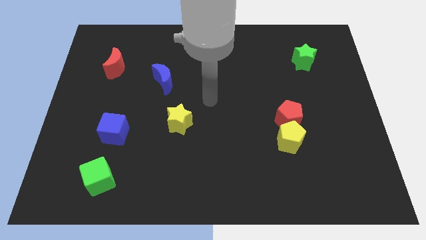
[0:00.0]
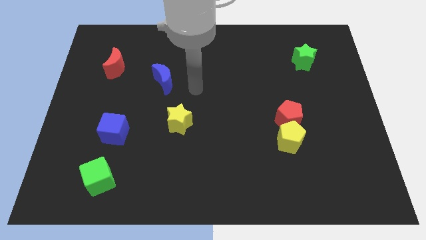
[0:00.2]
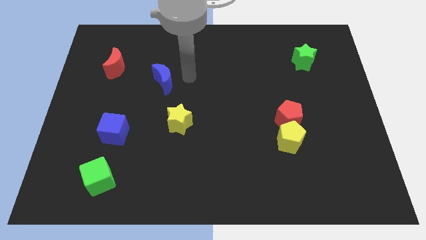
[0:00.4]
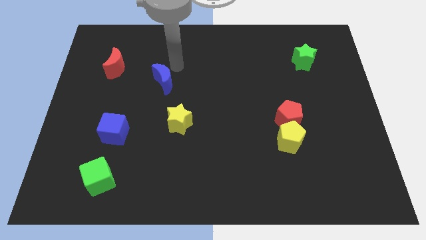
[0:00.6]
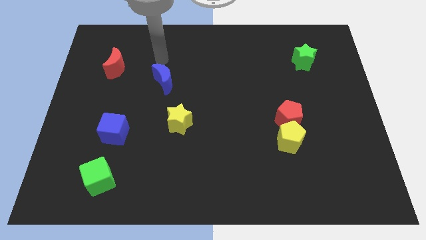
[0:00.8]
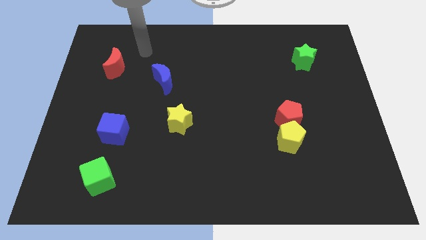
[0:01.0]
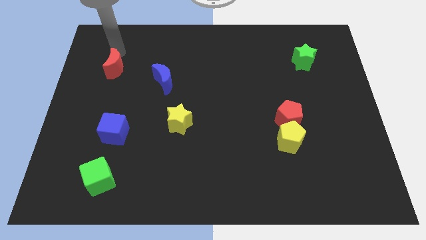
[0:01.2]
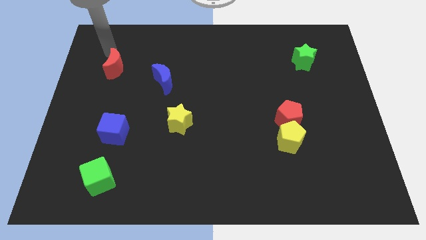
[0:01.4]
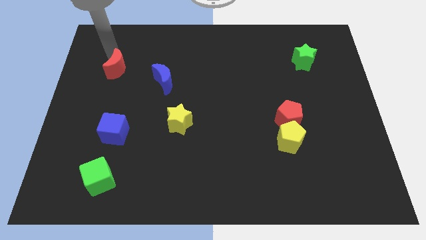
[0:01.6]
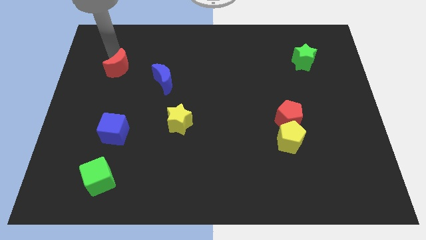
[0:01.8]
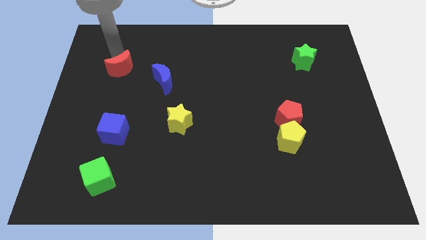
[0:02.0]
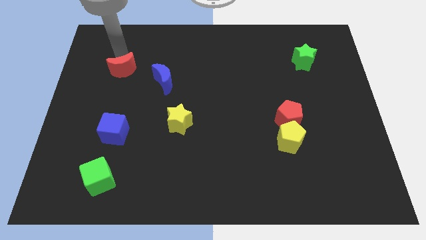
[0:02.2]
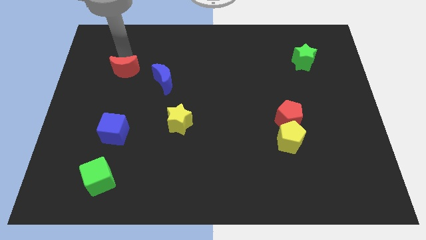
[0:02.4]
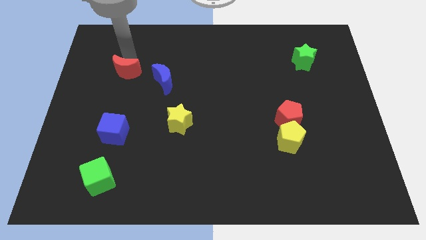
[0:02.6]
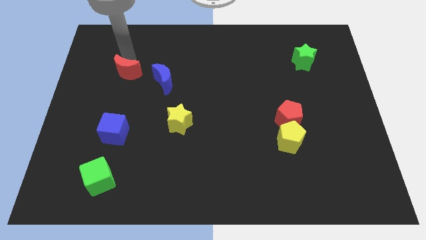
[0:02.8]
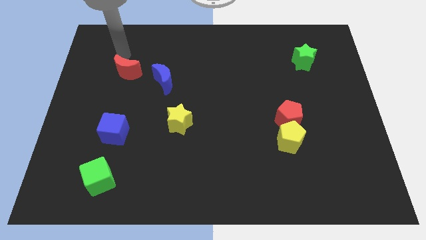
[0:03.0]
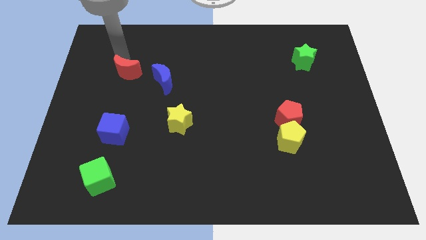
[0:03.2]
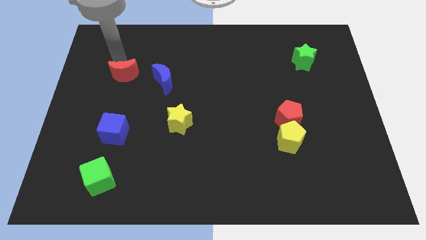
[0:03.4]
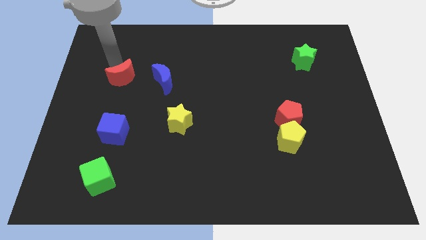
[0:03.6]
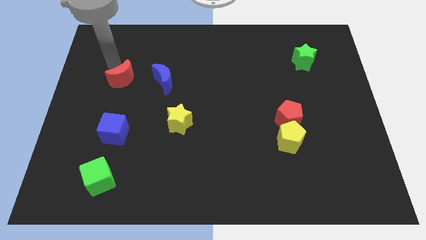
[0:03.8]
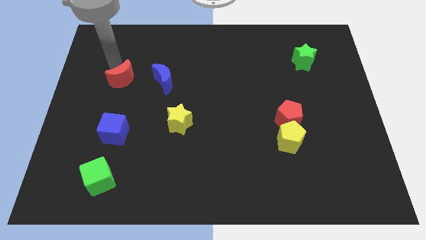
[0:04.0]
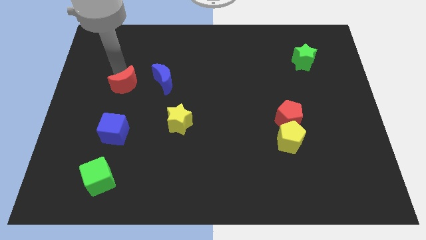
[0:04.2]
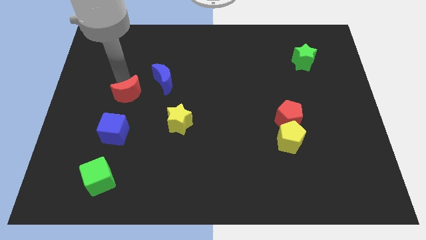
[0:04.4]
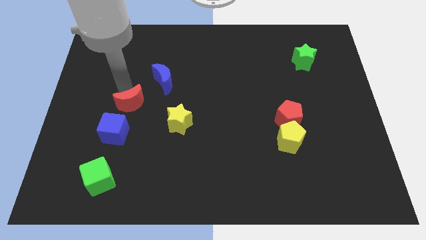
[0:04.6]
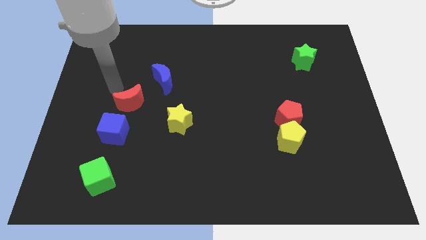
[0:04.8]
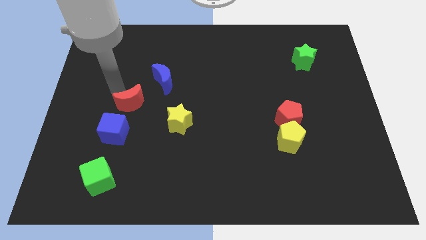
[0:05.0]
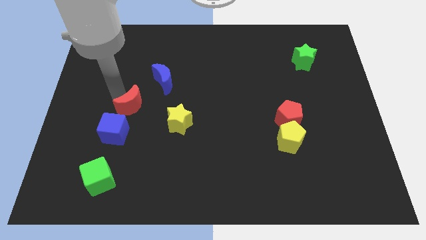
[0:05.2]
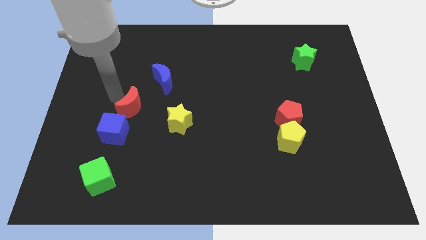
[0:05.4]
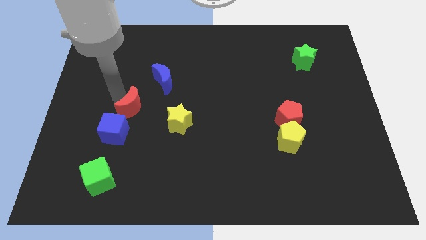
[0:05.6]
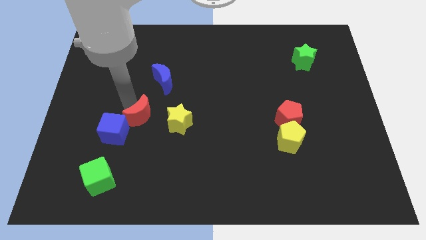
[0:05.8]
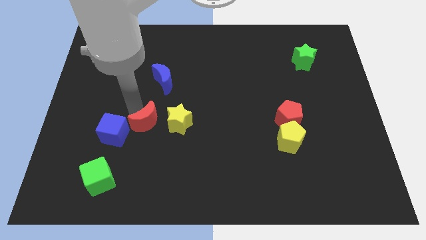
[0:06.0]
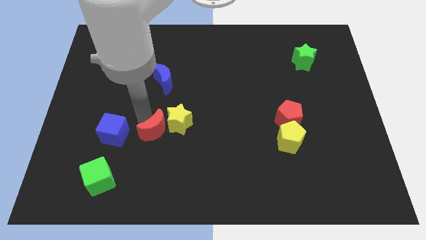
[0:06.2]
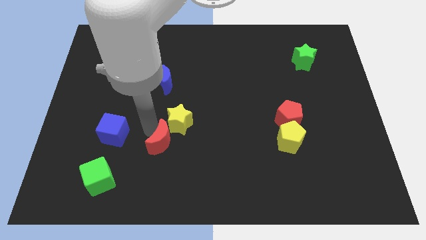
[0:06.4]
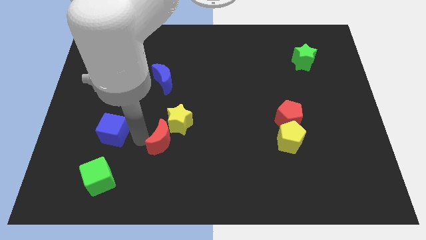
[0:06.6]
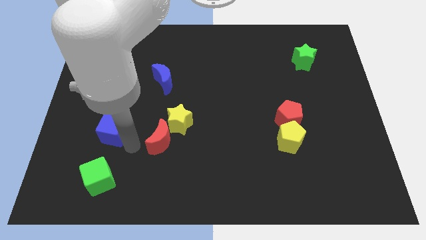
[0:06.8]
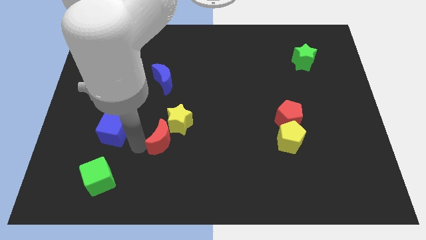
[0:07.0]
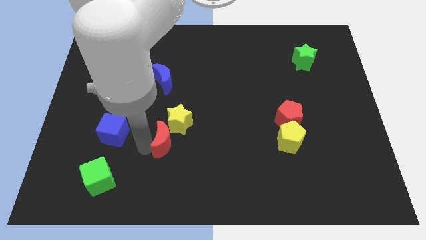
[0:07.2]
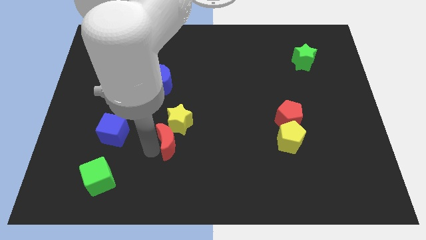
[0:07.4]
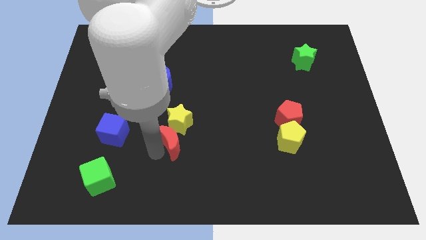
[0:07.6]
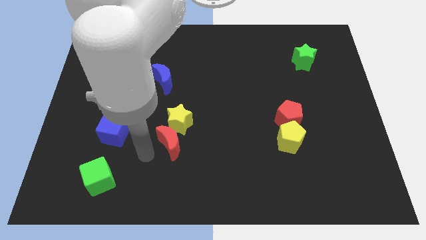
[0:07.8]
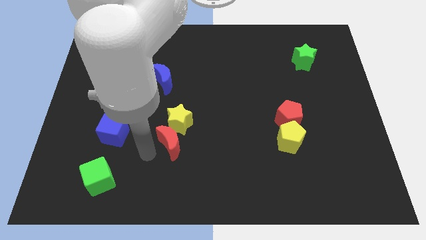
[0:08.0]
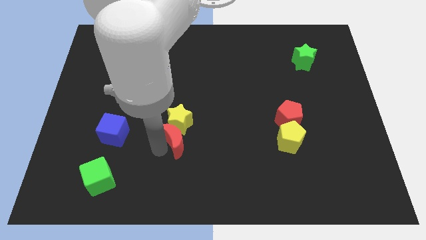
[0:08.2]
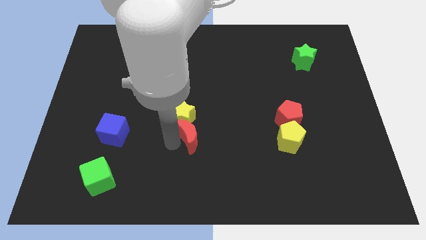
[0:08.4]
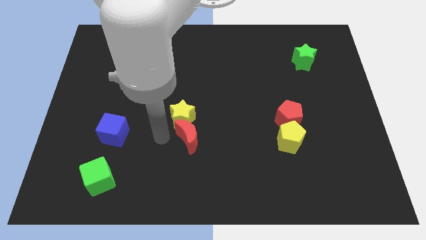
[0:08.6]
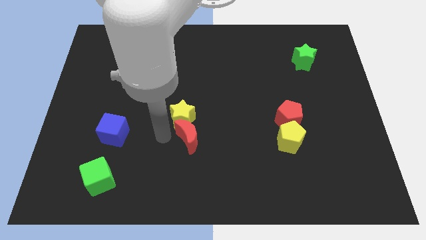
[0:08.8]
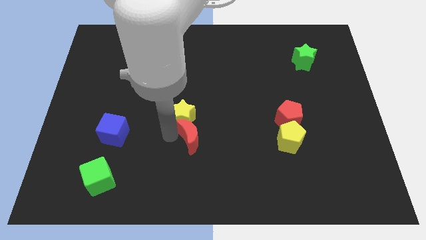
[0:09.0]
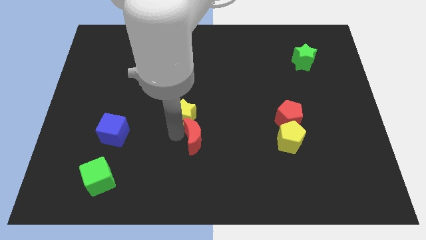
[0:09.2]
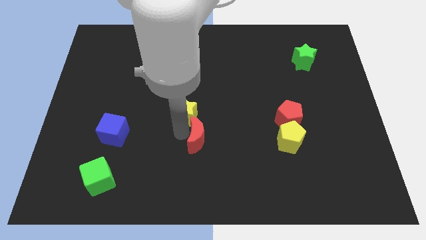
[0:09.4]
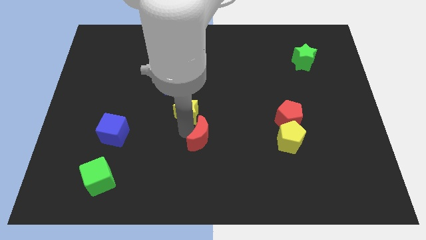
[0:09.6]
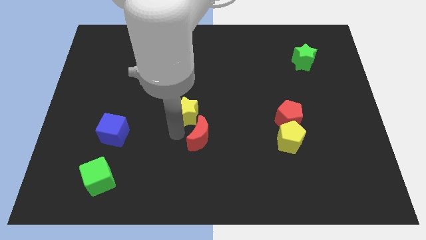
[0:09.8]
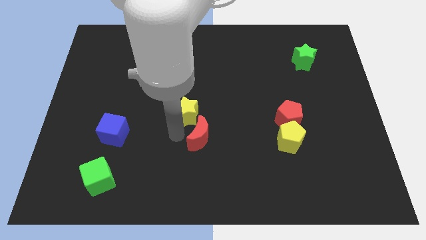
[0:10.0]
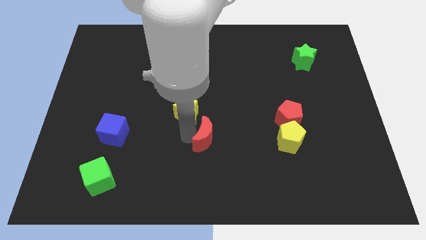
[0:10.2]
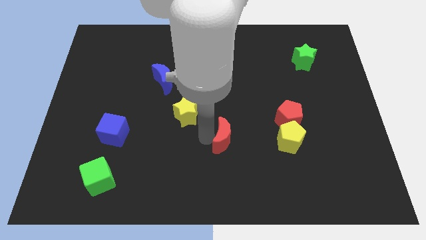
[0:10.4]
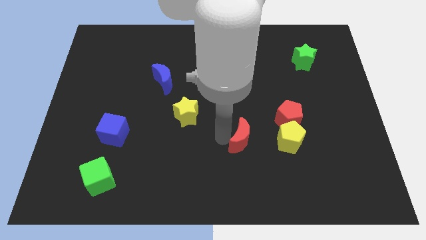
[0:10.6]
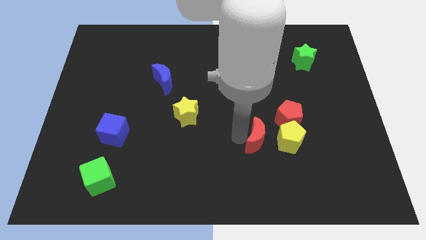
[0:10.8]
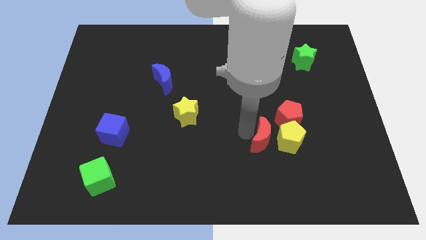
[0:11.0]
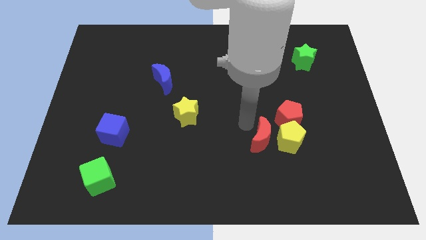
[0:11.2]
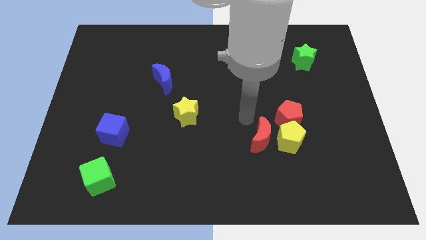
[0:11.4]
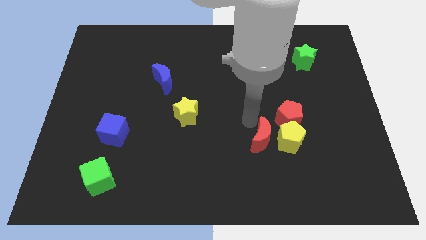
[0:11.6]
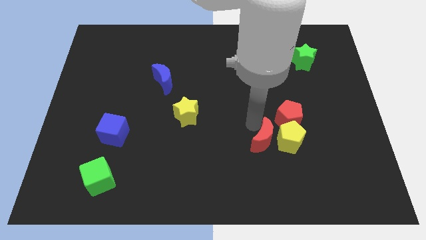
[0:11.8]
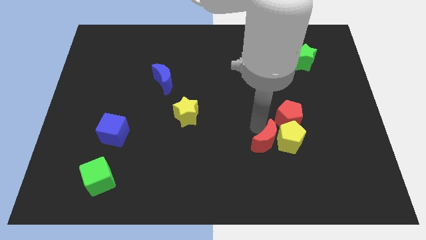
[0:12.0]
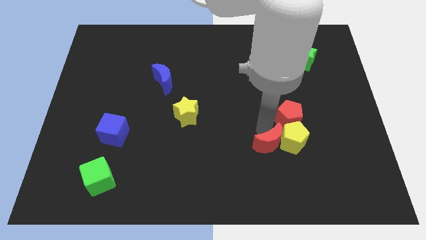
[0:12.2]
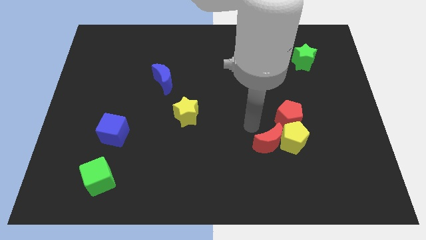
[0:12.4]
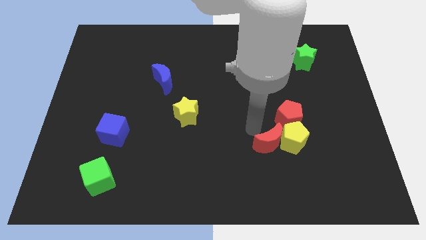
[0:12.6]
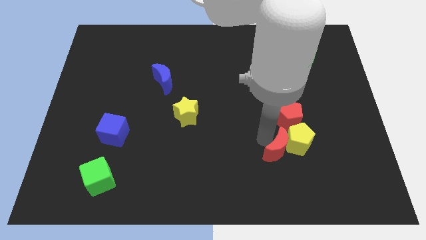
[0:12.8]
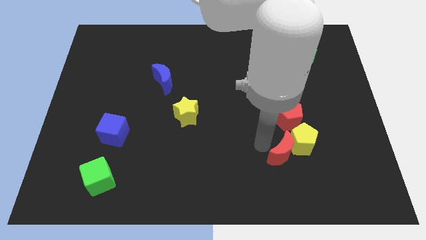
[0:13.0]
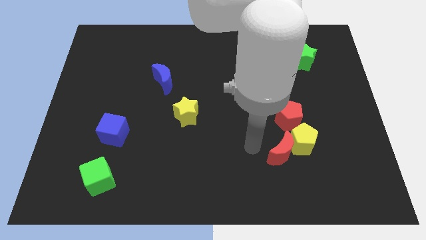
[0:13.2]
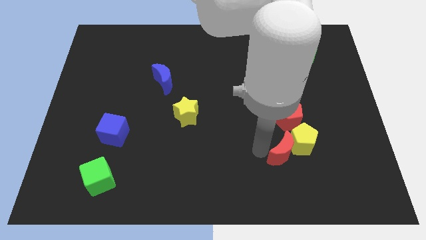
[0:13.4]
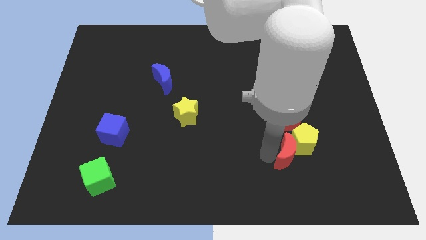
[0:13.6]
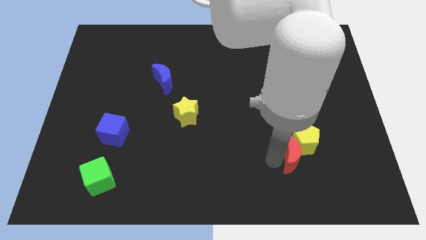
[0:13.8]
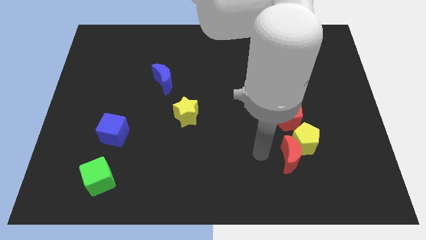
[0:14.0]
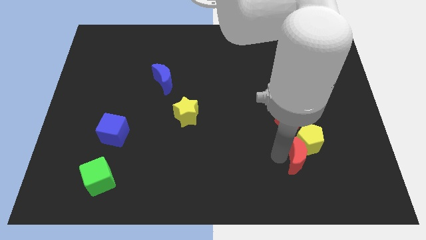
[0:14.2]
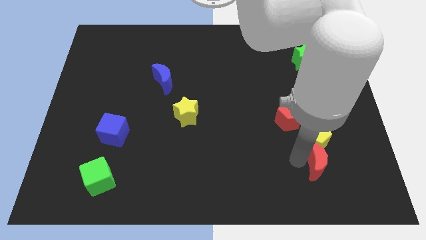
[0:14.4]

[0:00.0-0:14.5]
slide the red moon diagonally down and to the right of the yellow pentagon
